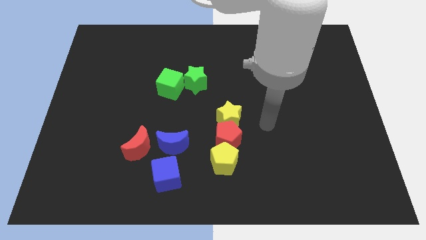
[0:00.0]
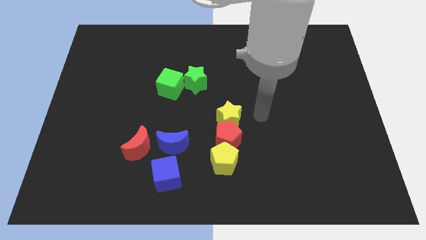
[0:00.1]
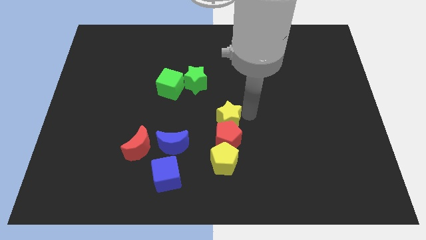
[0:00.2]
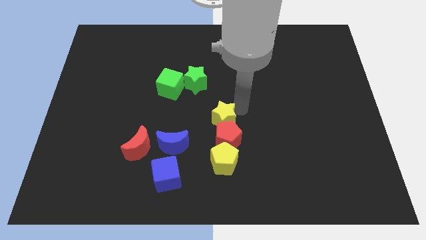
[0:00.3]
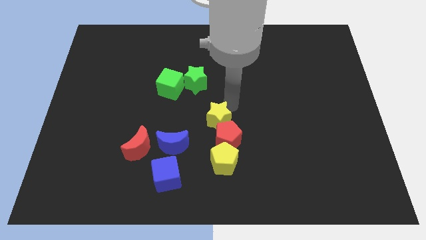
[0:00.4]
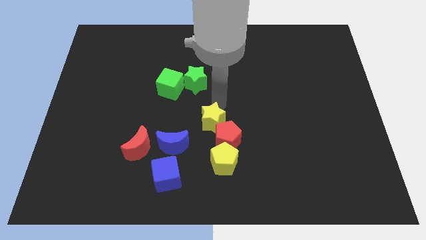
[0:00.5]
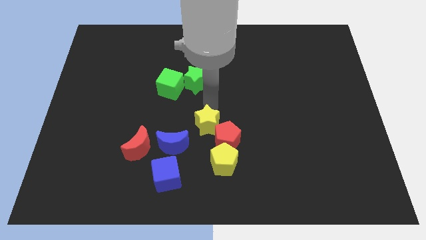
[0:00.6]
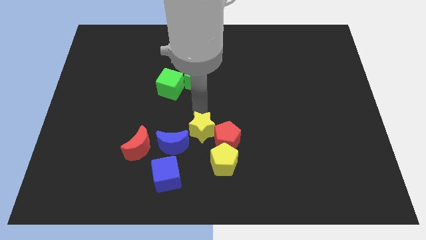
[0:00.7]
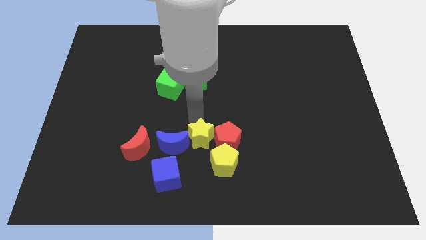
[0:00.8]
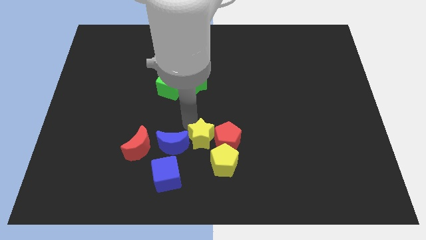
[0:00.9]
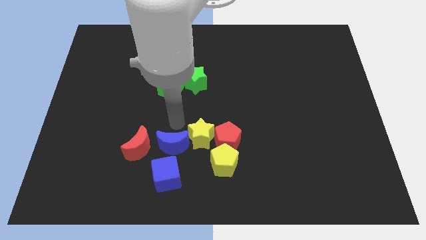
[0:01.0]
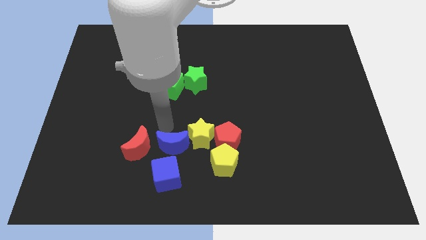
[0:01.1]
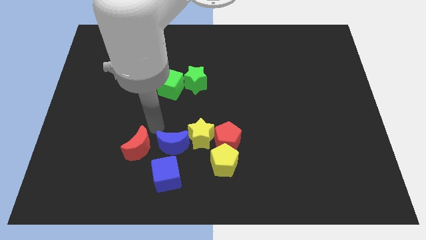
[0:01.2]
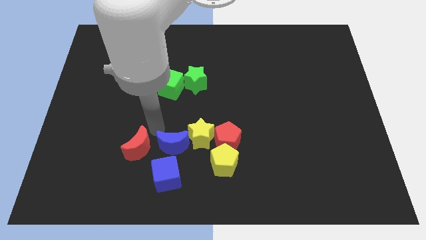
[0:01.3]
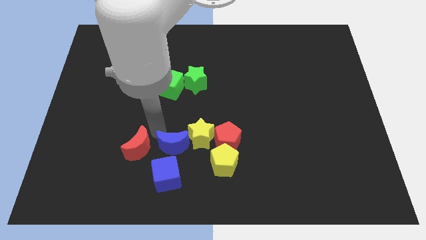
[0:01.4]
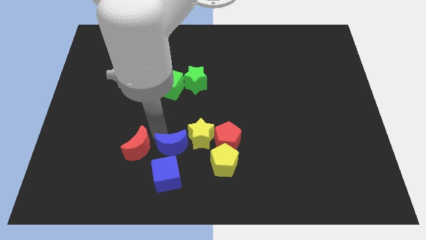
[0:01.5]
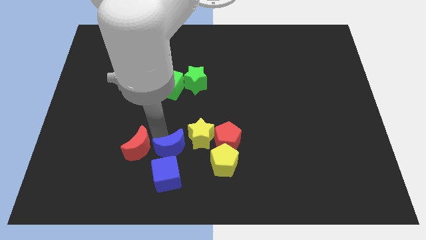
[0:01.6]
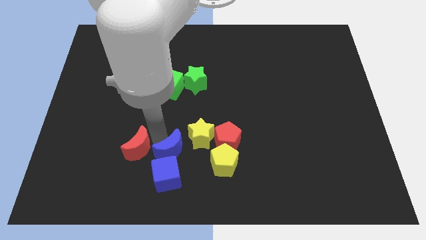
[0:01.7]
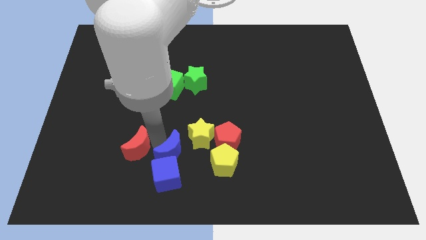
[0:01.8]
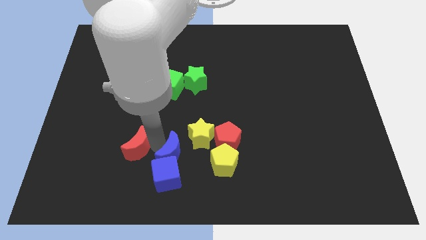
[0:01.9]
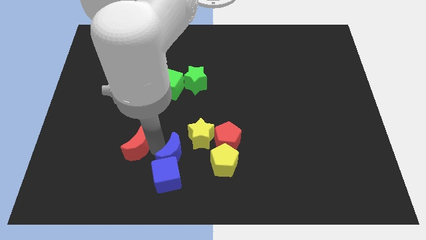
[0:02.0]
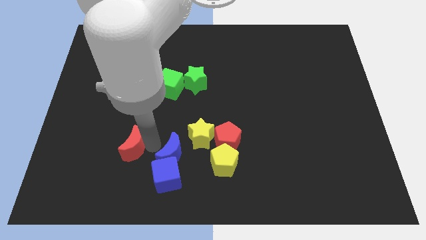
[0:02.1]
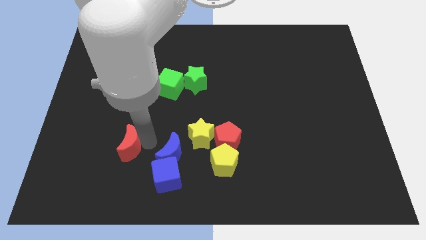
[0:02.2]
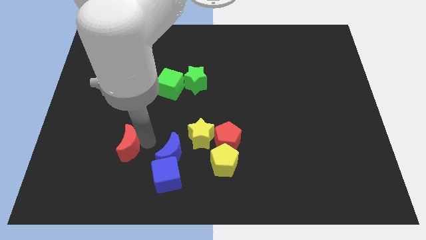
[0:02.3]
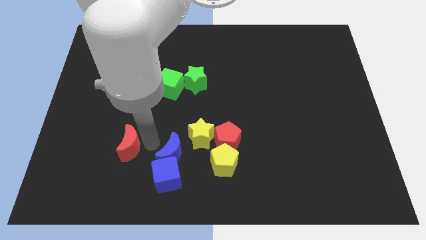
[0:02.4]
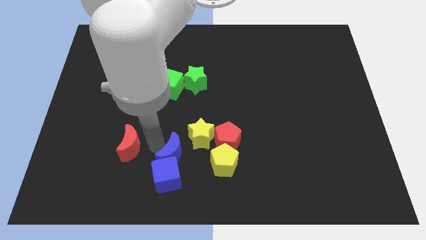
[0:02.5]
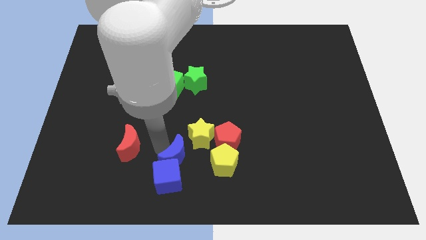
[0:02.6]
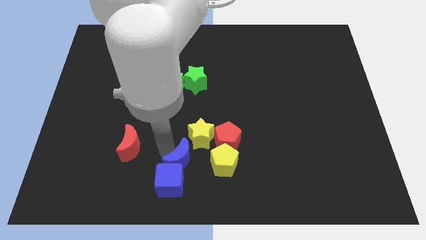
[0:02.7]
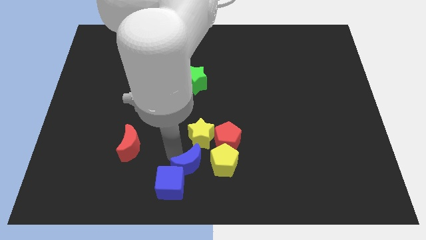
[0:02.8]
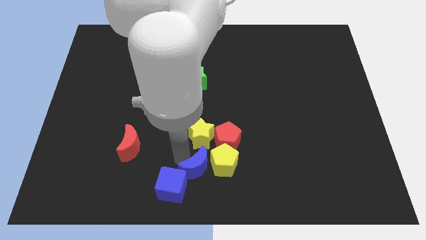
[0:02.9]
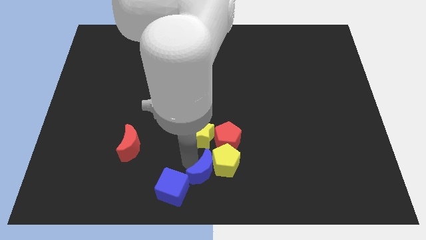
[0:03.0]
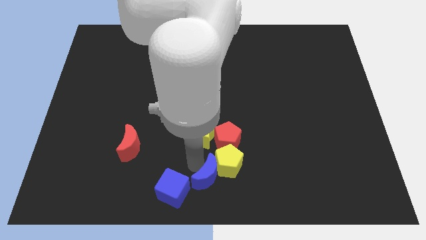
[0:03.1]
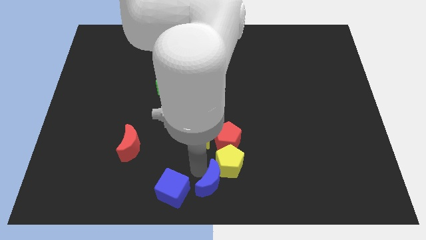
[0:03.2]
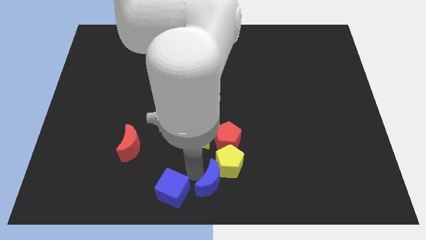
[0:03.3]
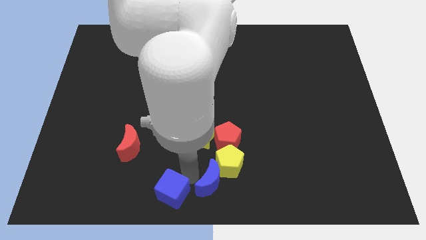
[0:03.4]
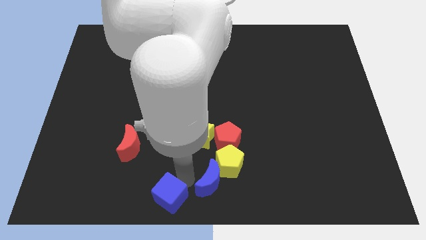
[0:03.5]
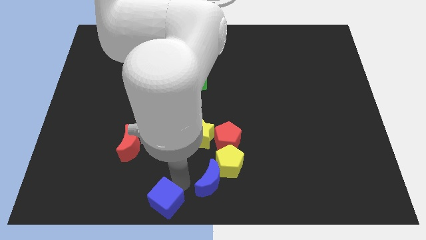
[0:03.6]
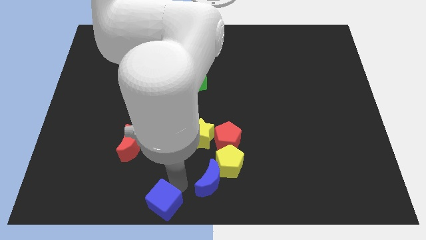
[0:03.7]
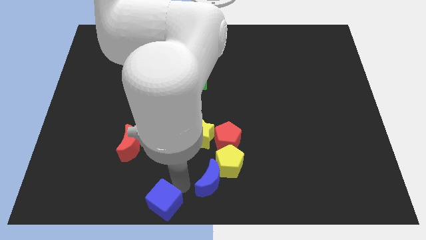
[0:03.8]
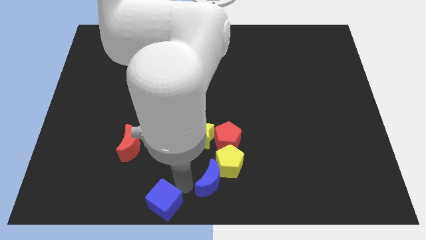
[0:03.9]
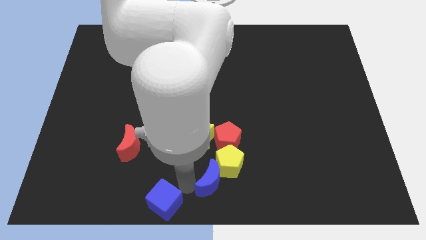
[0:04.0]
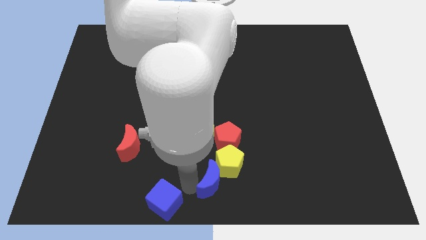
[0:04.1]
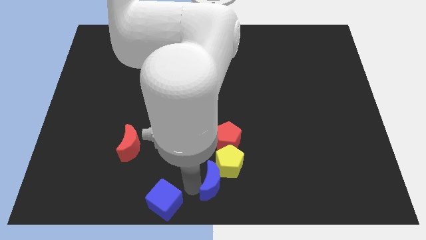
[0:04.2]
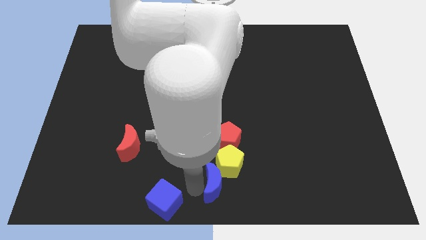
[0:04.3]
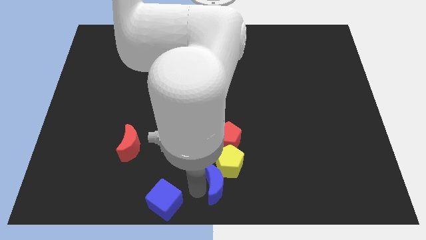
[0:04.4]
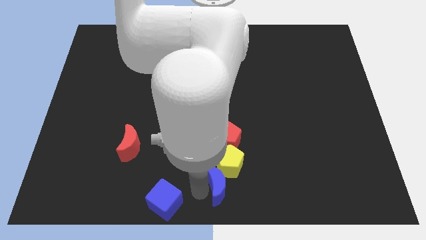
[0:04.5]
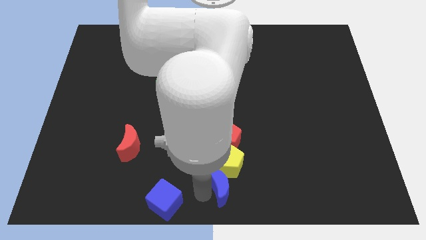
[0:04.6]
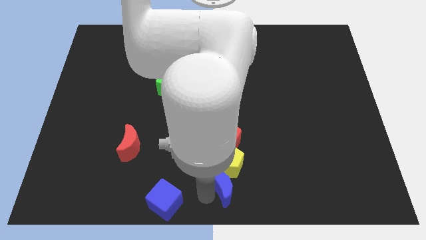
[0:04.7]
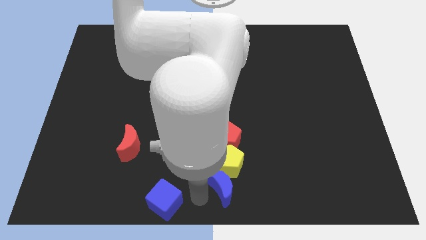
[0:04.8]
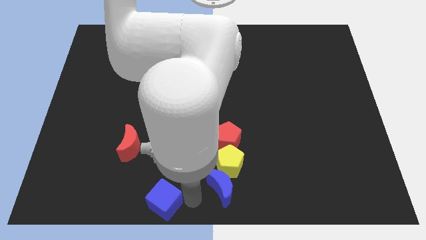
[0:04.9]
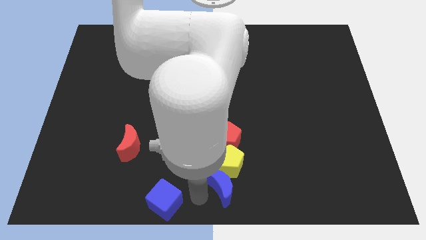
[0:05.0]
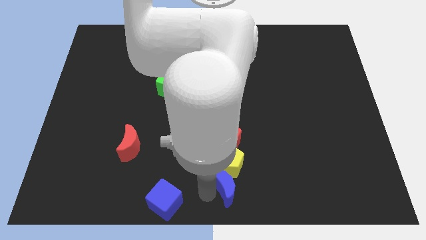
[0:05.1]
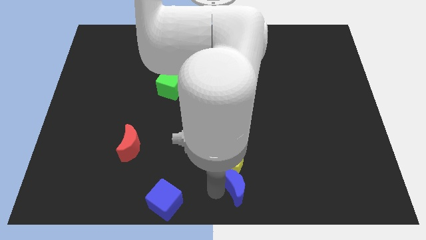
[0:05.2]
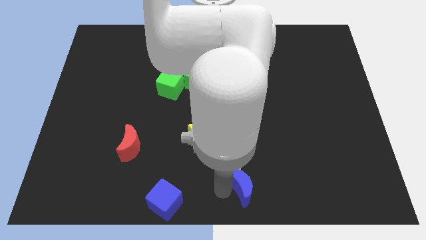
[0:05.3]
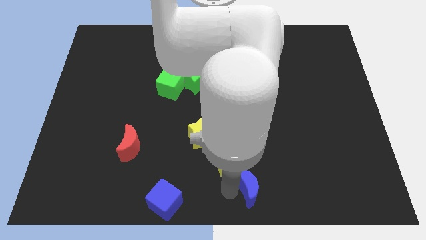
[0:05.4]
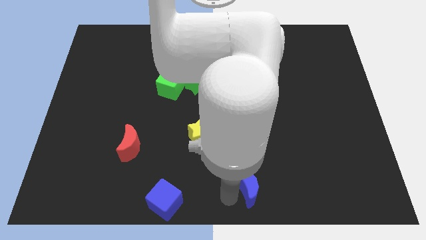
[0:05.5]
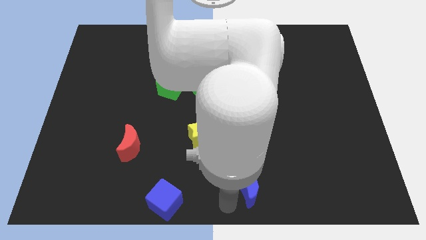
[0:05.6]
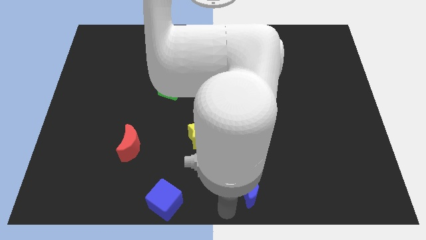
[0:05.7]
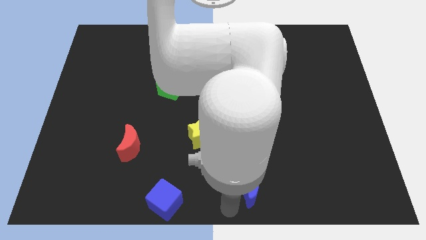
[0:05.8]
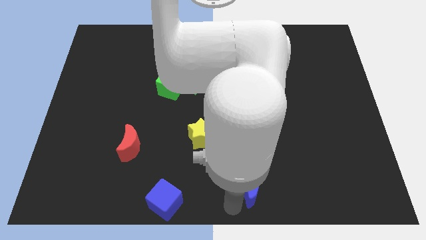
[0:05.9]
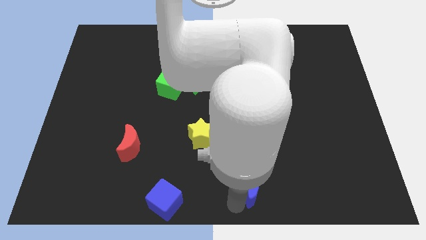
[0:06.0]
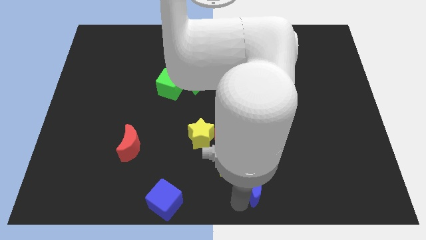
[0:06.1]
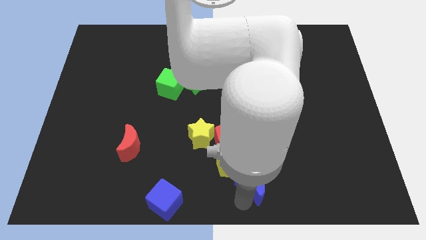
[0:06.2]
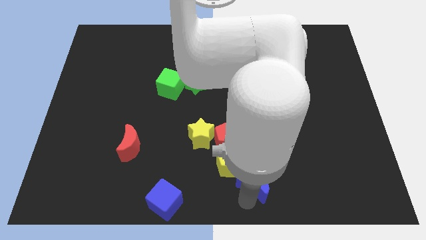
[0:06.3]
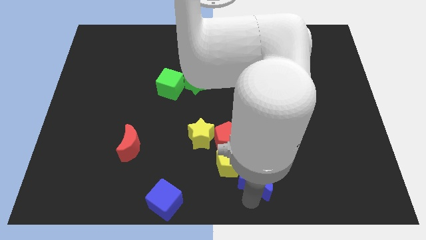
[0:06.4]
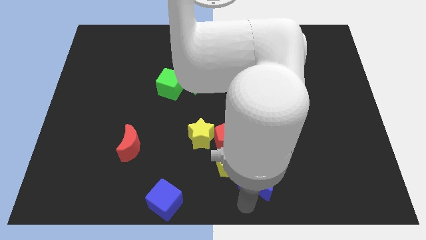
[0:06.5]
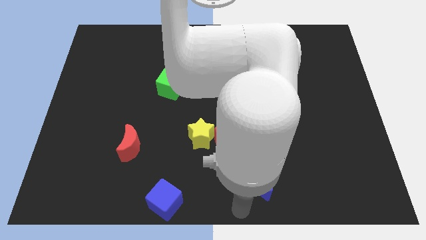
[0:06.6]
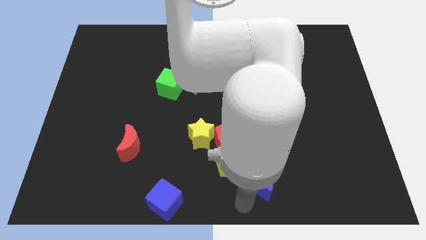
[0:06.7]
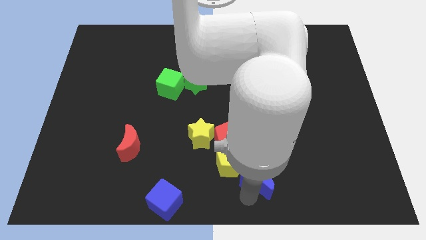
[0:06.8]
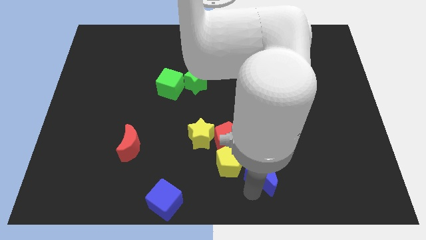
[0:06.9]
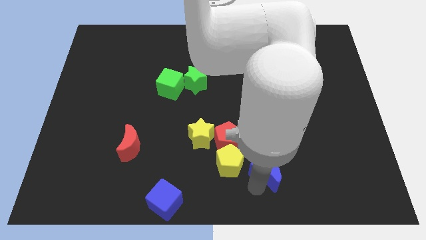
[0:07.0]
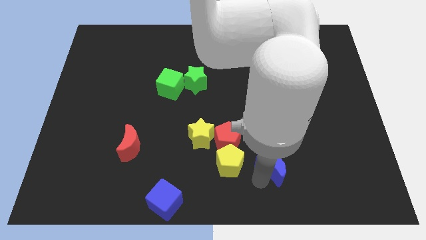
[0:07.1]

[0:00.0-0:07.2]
push the blue moon to the right

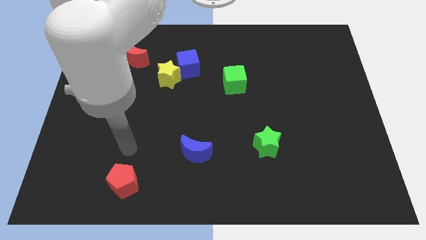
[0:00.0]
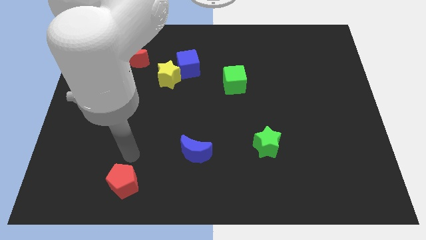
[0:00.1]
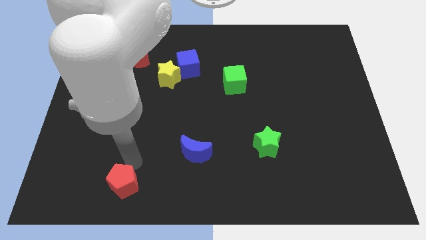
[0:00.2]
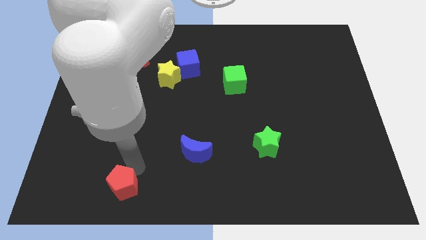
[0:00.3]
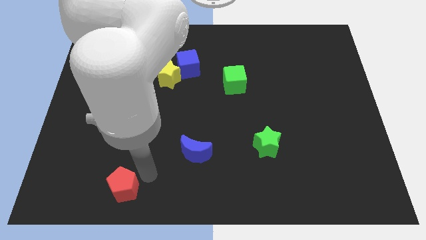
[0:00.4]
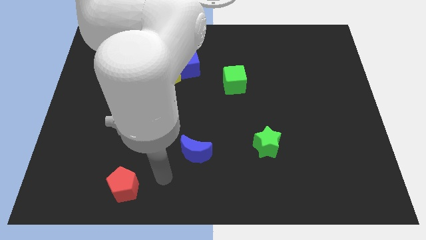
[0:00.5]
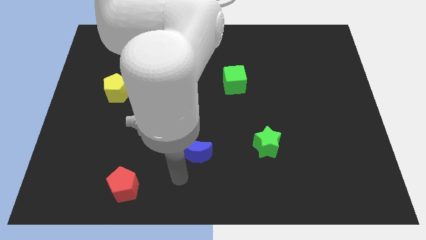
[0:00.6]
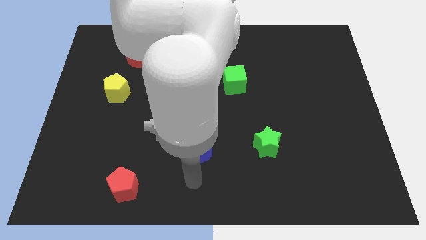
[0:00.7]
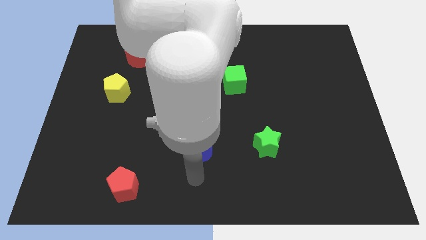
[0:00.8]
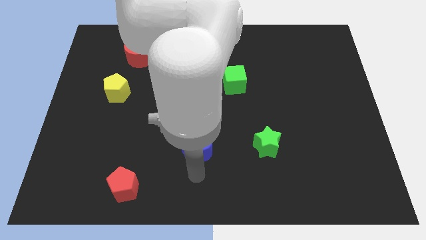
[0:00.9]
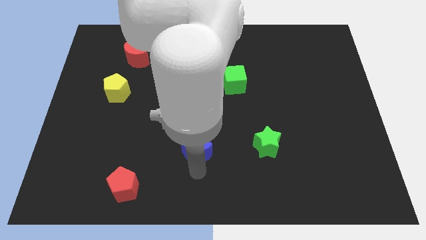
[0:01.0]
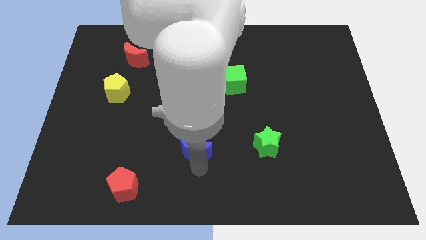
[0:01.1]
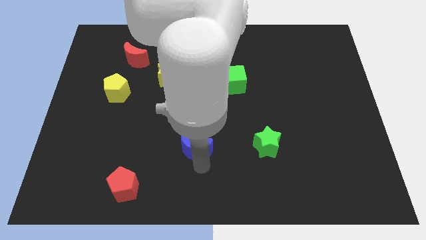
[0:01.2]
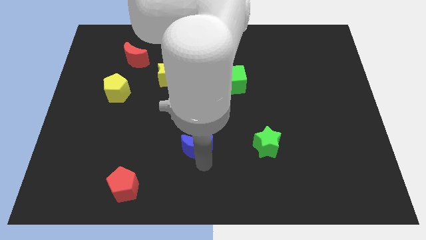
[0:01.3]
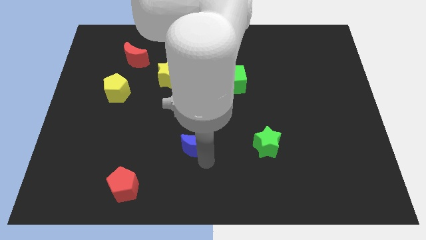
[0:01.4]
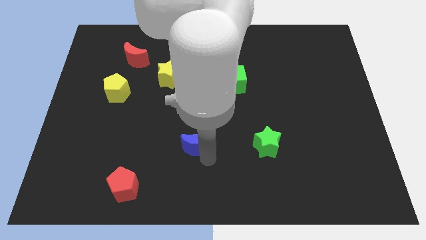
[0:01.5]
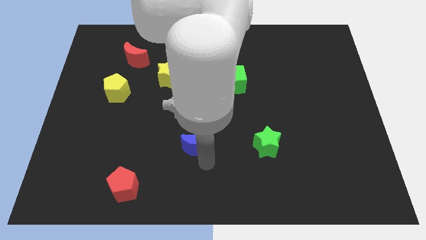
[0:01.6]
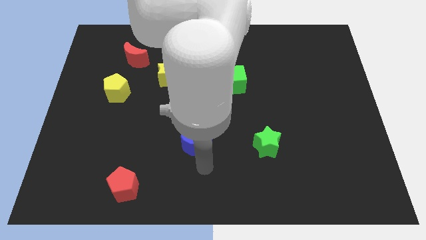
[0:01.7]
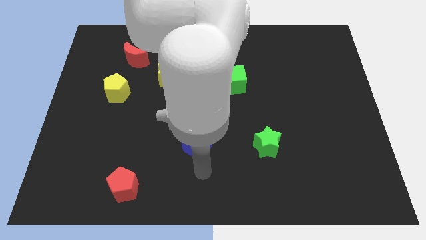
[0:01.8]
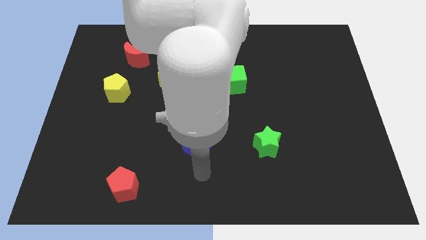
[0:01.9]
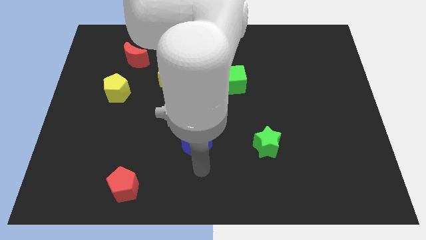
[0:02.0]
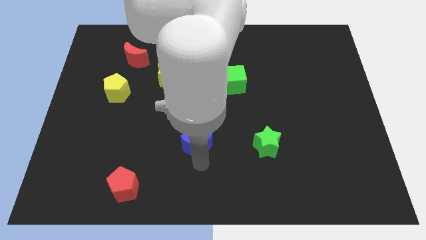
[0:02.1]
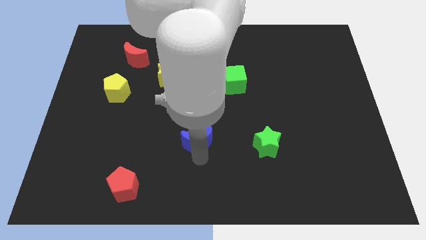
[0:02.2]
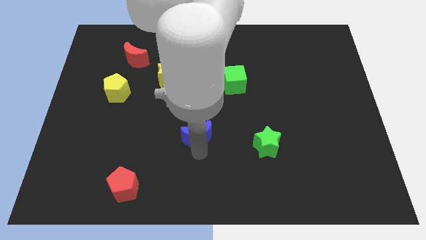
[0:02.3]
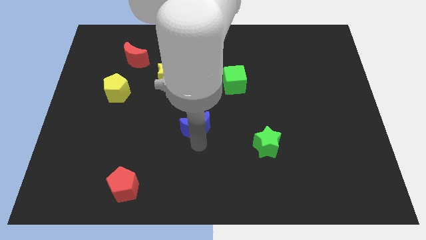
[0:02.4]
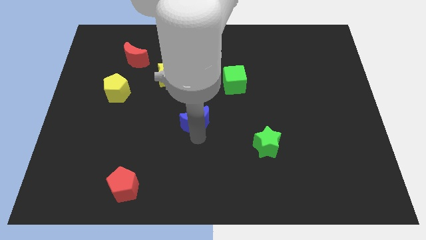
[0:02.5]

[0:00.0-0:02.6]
push the blue moon a little up
